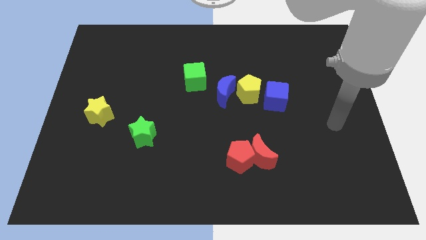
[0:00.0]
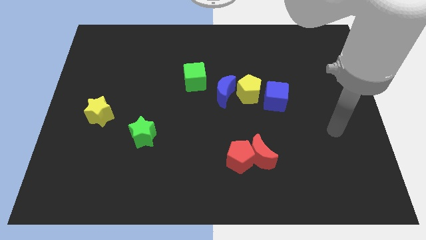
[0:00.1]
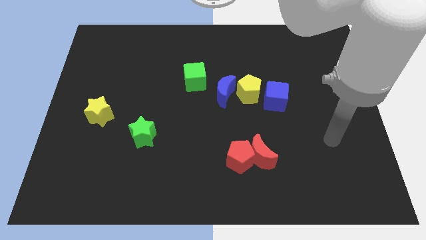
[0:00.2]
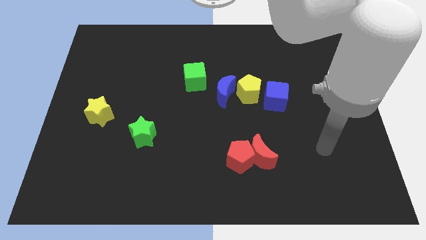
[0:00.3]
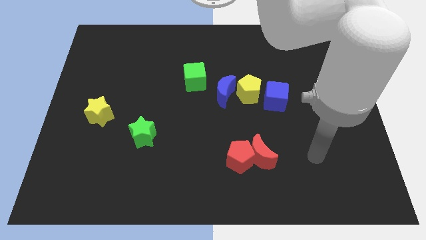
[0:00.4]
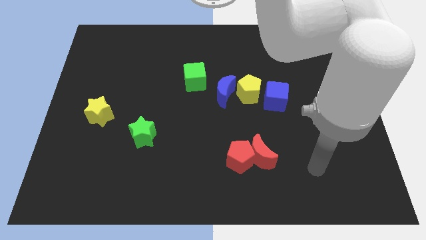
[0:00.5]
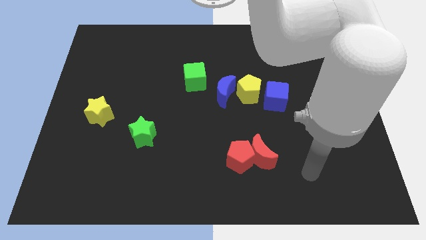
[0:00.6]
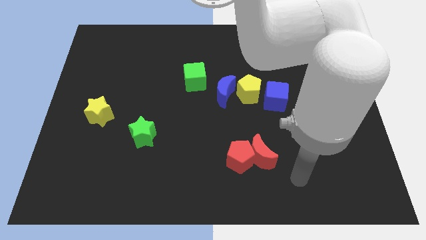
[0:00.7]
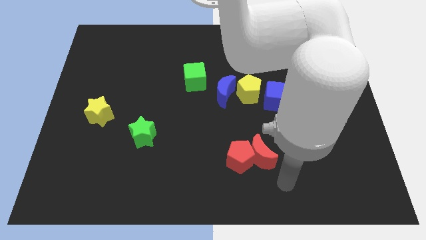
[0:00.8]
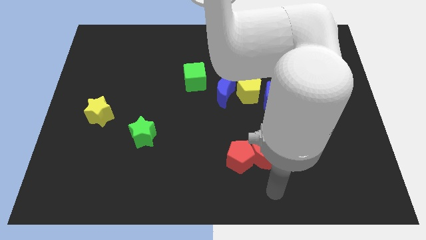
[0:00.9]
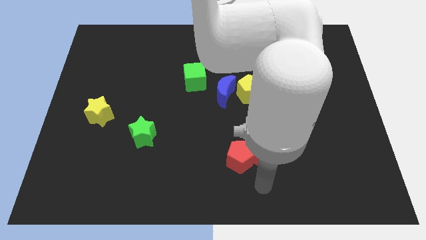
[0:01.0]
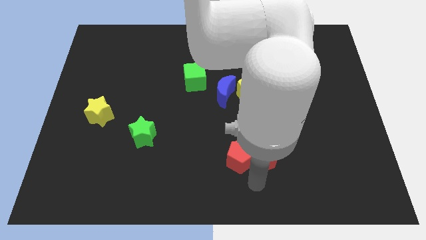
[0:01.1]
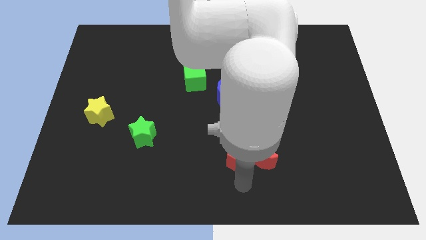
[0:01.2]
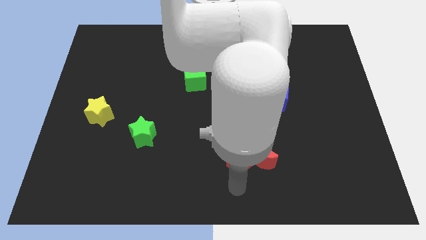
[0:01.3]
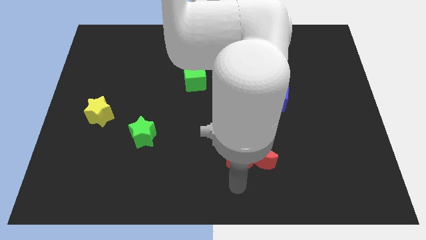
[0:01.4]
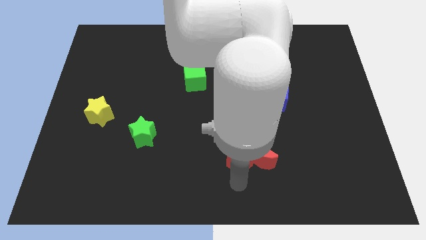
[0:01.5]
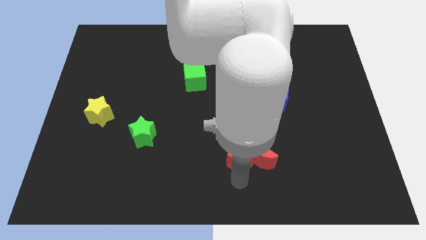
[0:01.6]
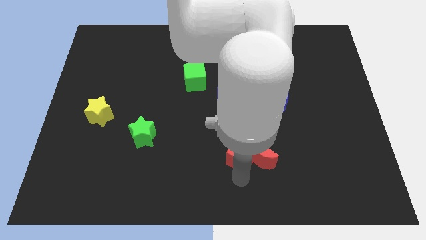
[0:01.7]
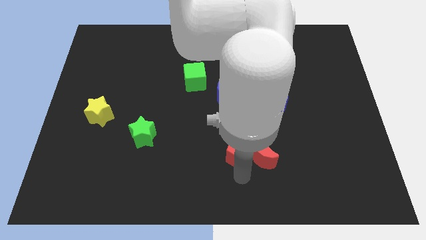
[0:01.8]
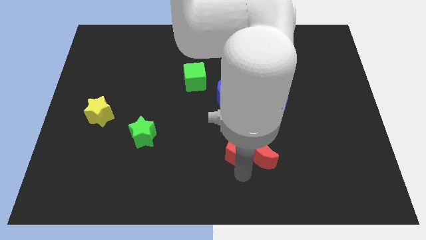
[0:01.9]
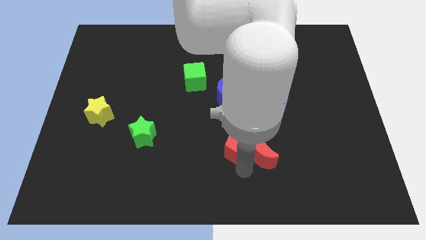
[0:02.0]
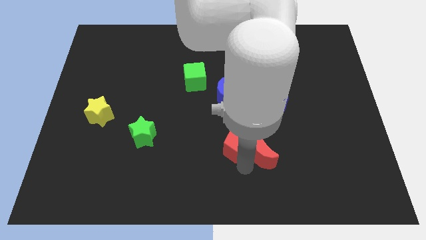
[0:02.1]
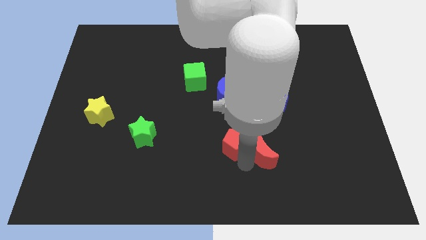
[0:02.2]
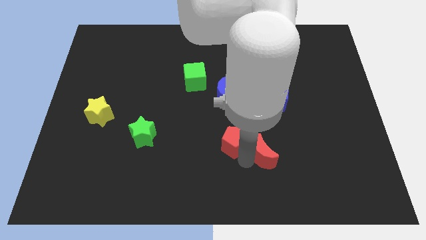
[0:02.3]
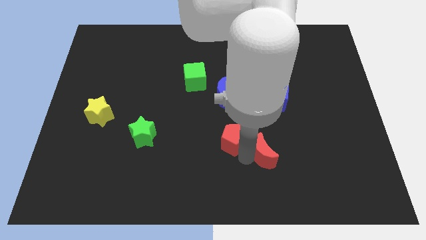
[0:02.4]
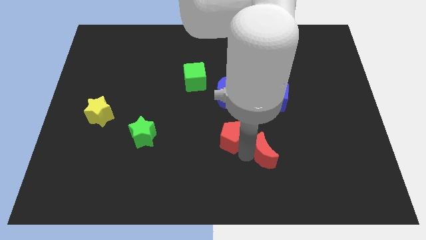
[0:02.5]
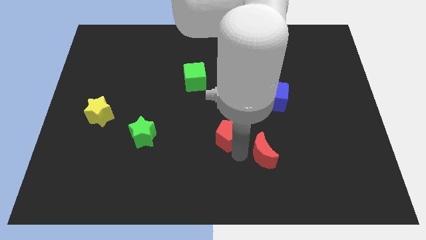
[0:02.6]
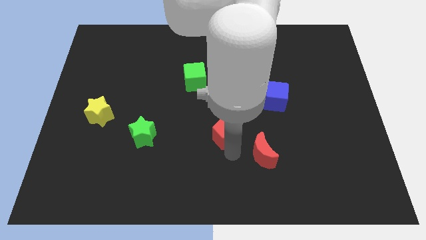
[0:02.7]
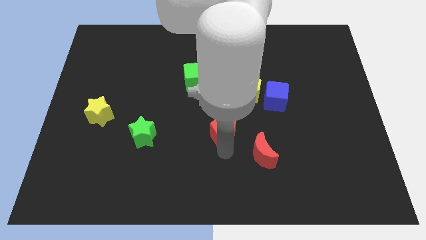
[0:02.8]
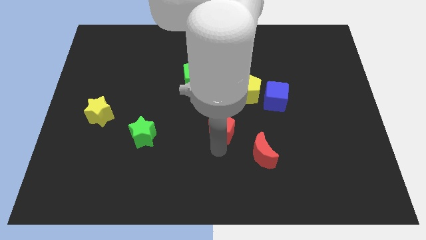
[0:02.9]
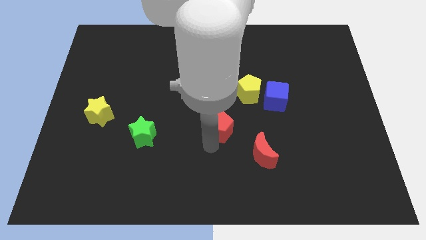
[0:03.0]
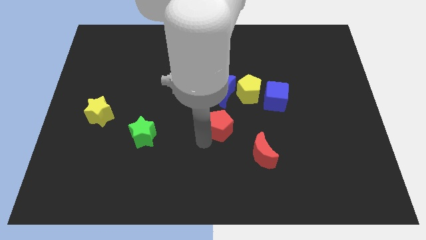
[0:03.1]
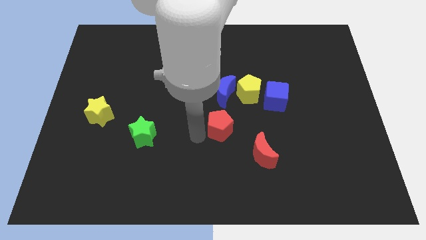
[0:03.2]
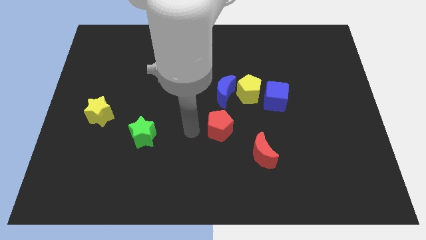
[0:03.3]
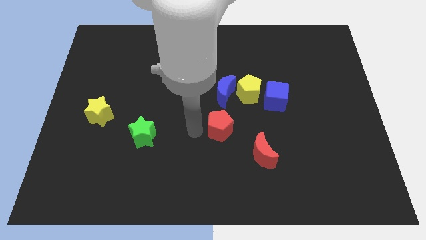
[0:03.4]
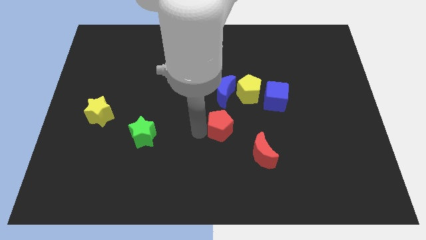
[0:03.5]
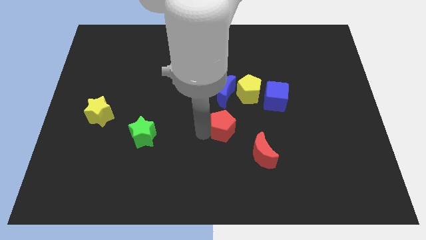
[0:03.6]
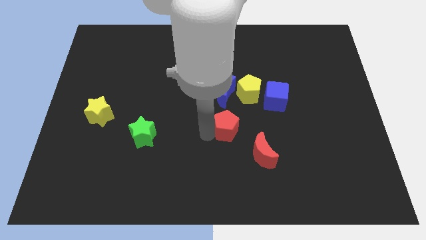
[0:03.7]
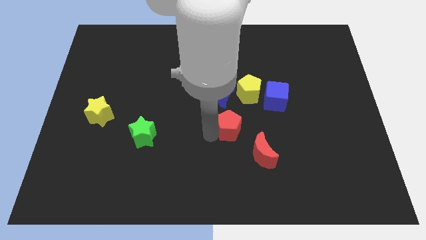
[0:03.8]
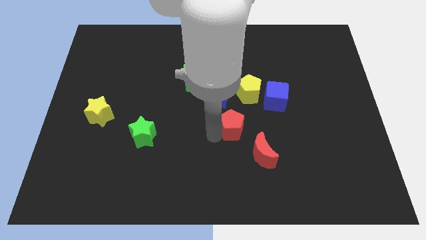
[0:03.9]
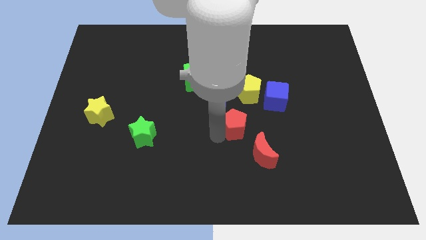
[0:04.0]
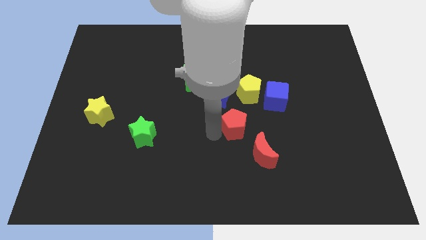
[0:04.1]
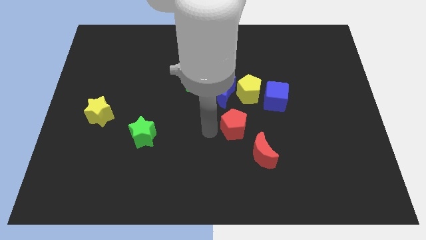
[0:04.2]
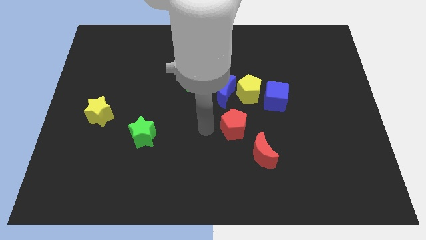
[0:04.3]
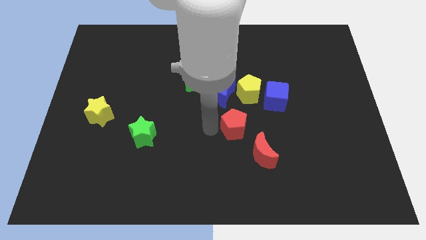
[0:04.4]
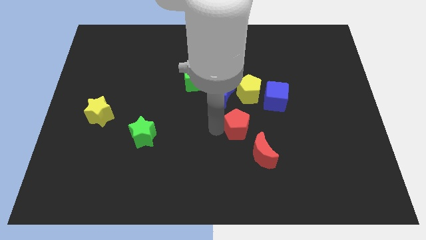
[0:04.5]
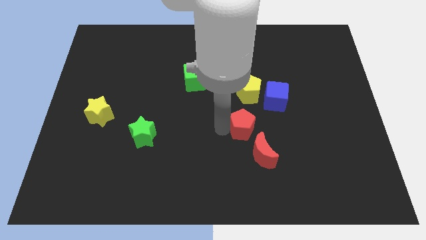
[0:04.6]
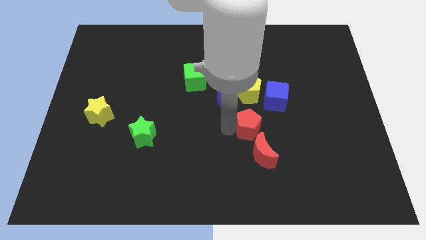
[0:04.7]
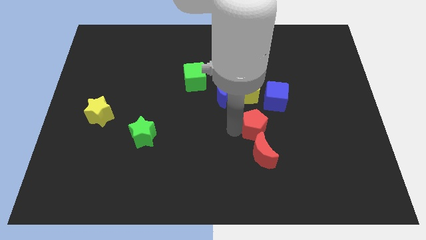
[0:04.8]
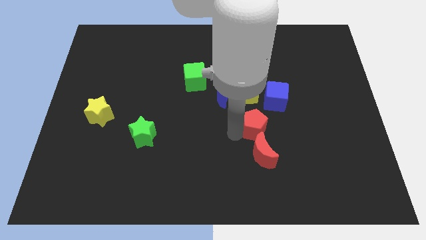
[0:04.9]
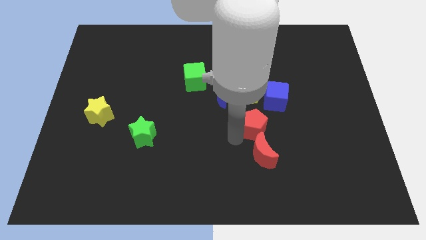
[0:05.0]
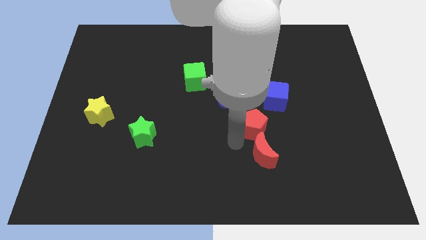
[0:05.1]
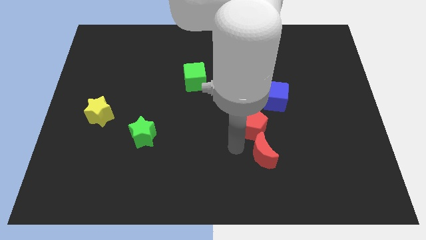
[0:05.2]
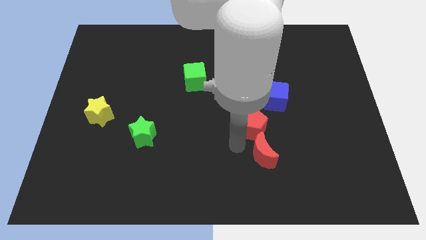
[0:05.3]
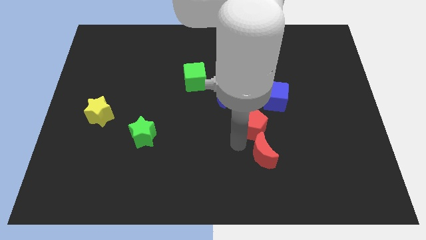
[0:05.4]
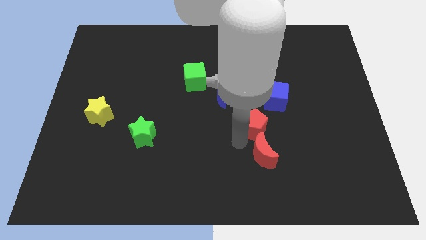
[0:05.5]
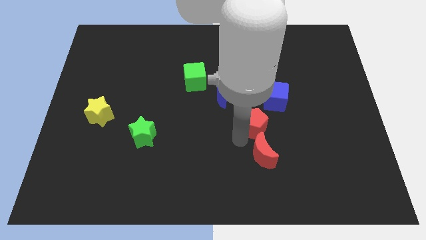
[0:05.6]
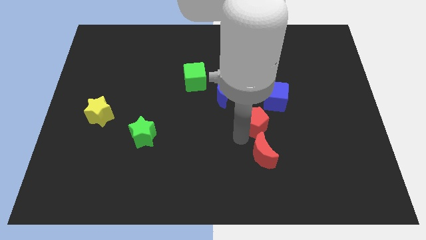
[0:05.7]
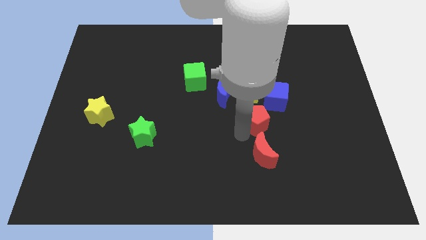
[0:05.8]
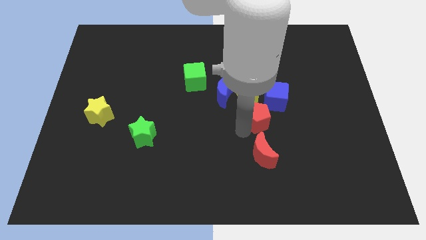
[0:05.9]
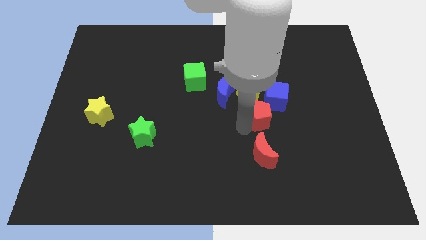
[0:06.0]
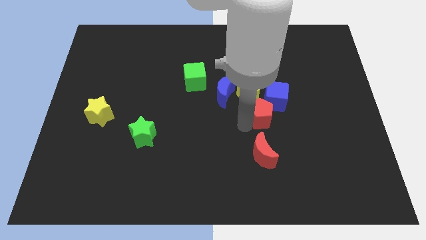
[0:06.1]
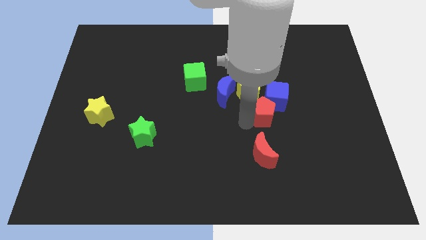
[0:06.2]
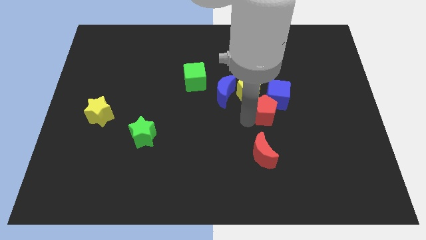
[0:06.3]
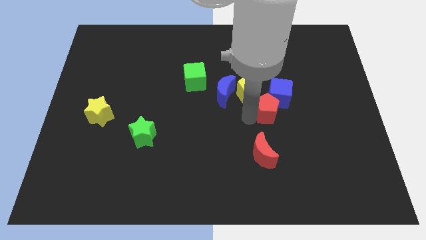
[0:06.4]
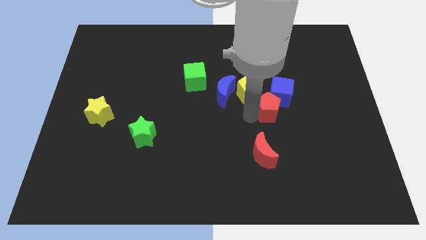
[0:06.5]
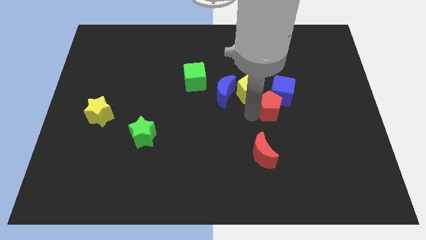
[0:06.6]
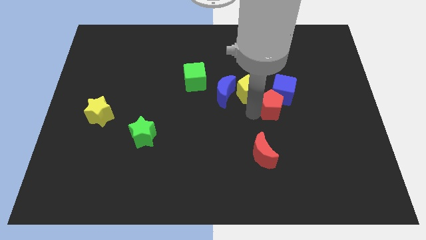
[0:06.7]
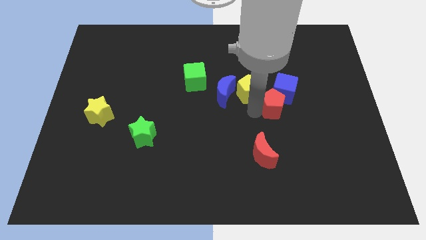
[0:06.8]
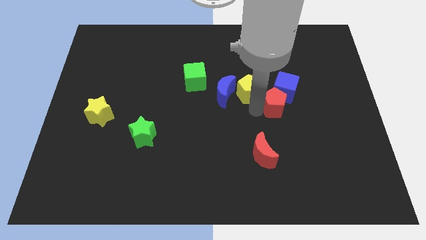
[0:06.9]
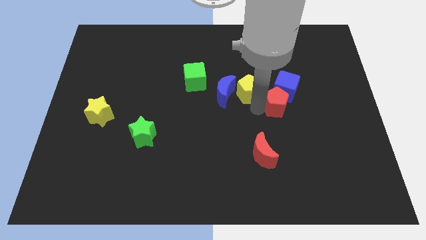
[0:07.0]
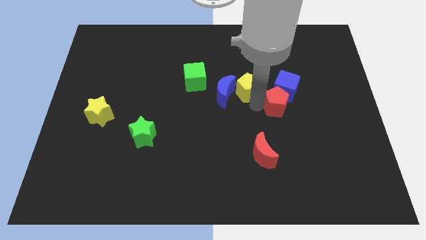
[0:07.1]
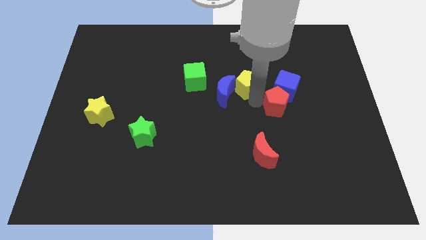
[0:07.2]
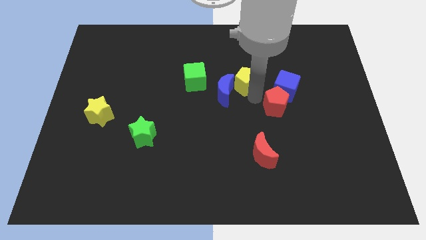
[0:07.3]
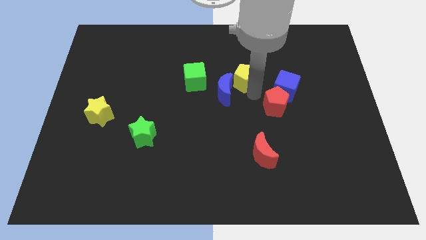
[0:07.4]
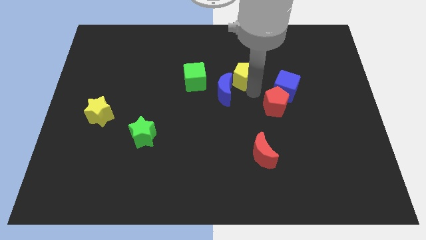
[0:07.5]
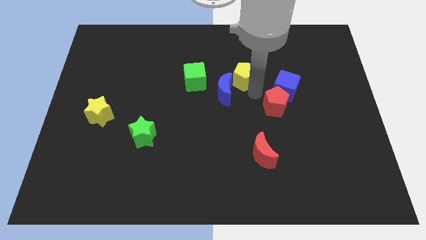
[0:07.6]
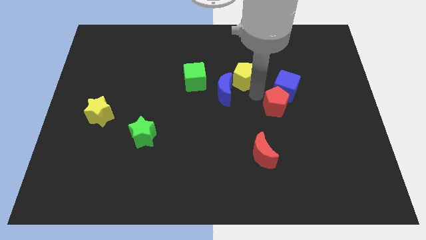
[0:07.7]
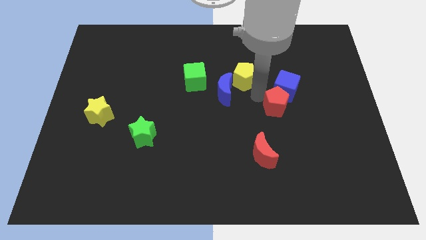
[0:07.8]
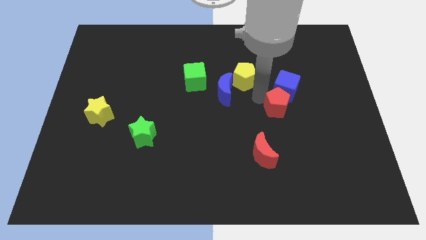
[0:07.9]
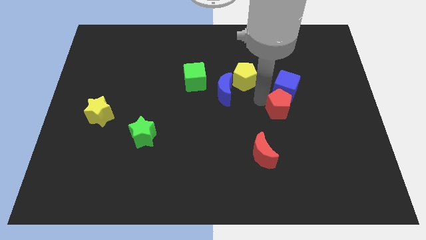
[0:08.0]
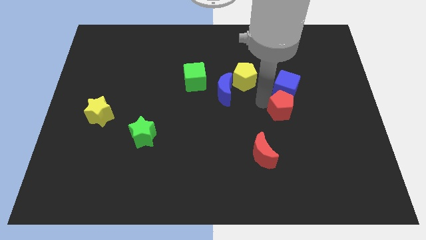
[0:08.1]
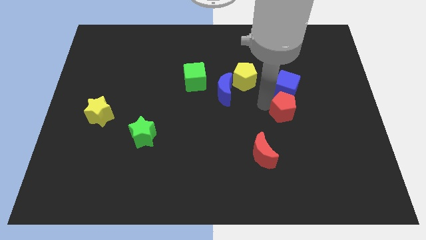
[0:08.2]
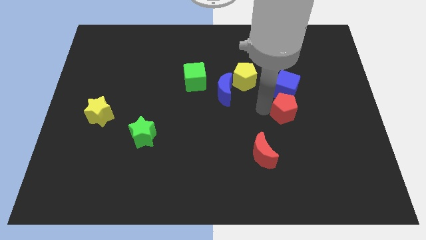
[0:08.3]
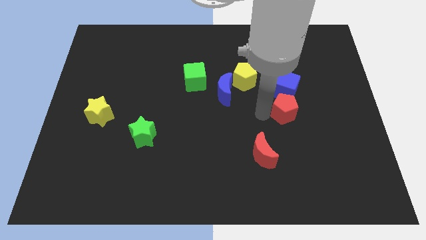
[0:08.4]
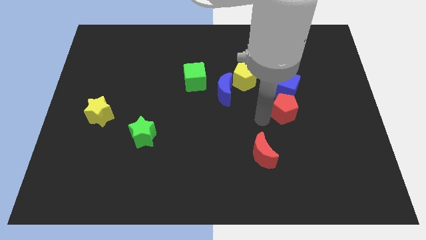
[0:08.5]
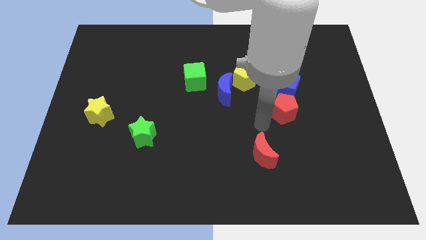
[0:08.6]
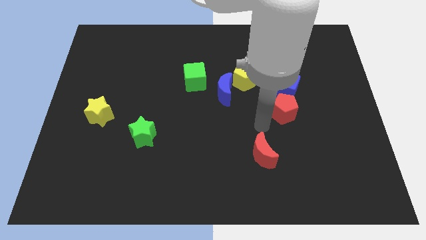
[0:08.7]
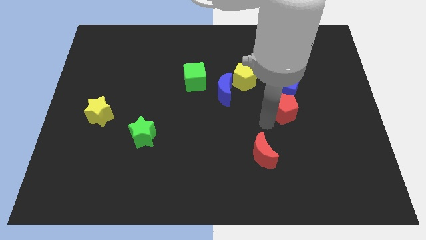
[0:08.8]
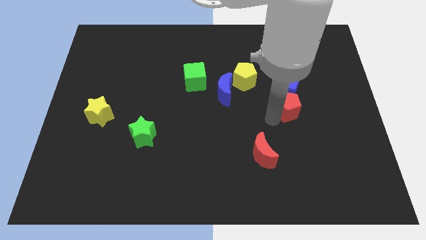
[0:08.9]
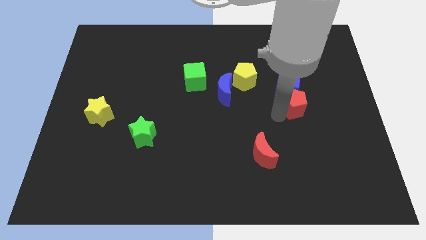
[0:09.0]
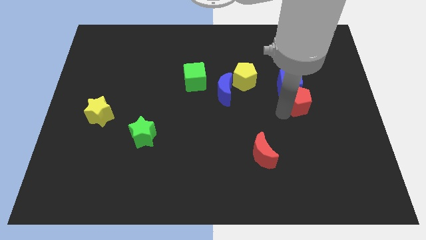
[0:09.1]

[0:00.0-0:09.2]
push the red pentagon upwards and then to the right
